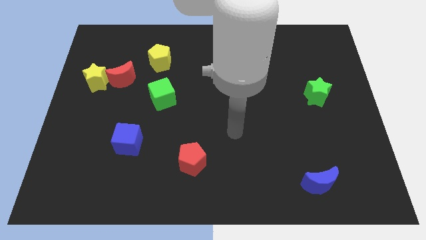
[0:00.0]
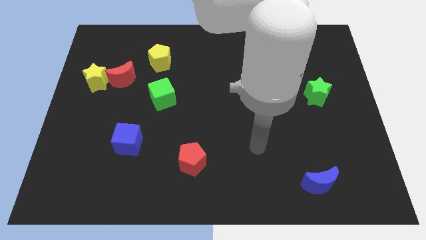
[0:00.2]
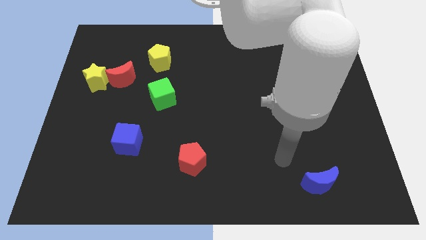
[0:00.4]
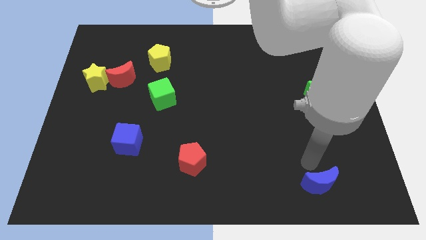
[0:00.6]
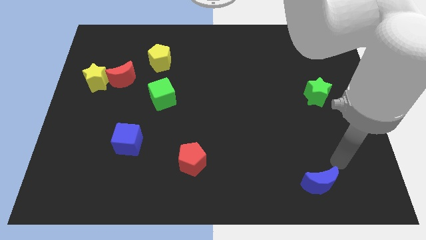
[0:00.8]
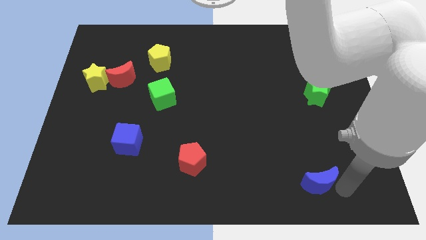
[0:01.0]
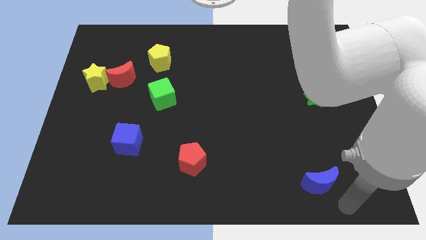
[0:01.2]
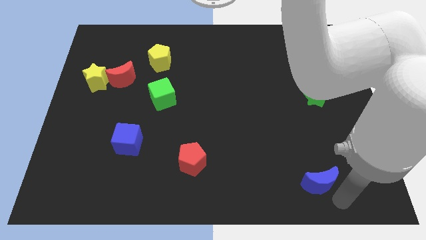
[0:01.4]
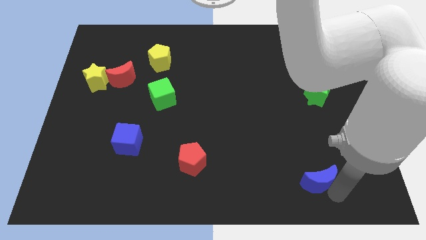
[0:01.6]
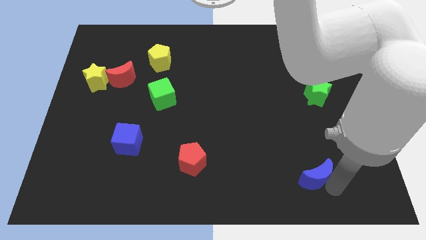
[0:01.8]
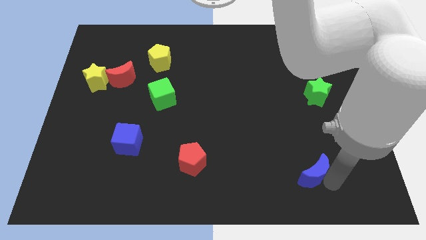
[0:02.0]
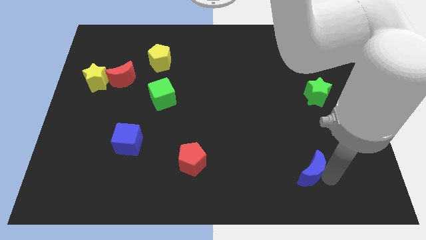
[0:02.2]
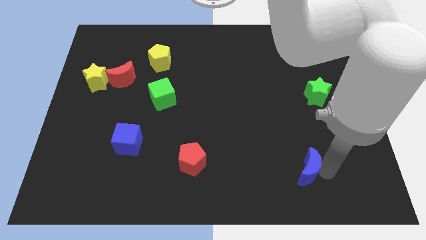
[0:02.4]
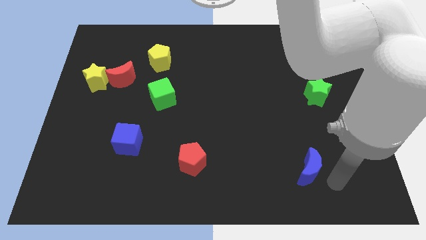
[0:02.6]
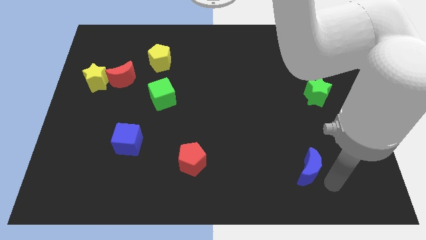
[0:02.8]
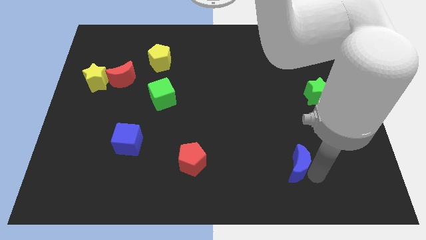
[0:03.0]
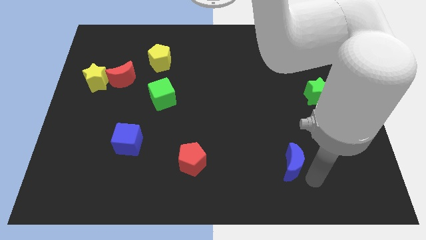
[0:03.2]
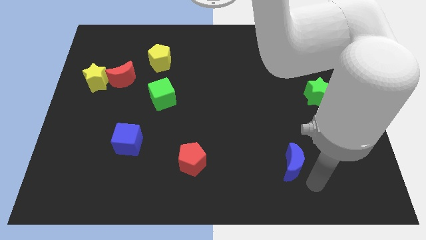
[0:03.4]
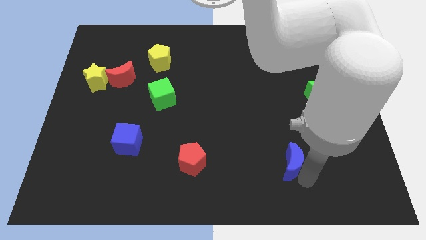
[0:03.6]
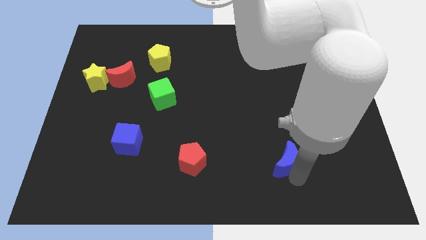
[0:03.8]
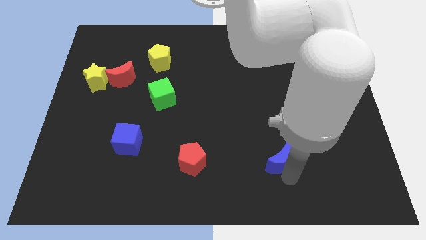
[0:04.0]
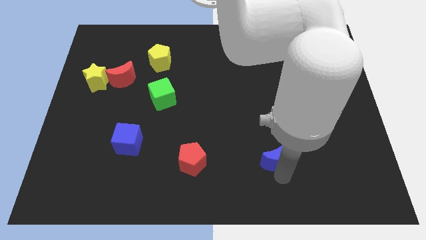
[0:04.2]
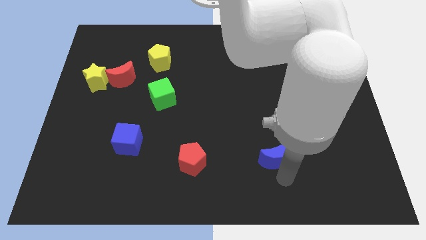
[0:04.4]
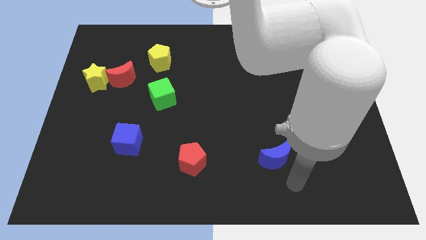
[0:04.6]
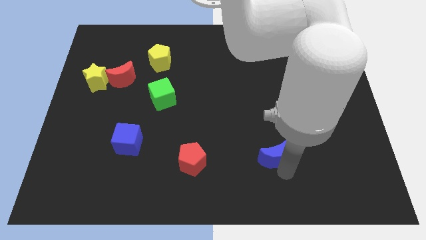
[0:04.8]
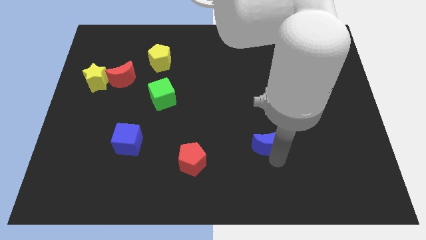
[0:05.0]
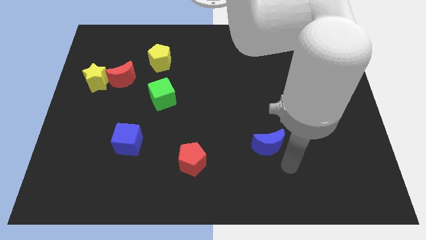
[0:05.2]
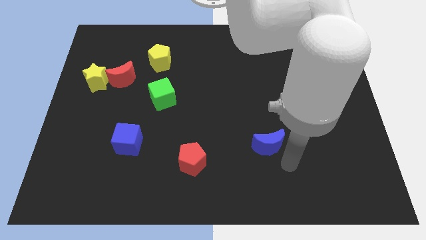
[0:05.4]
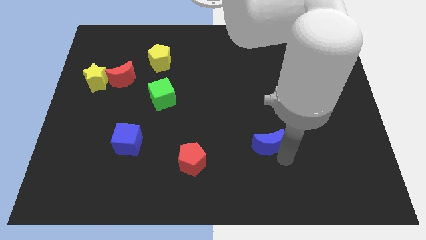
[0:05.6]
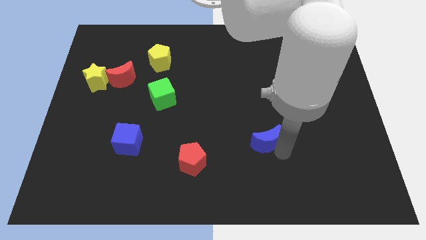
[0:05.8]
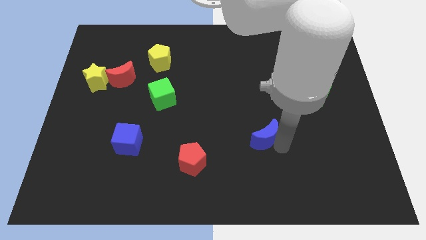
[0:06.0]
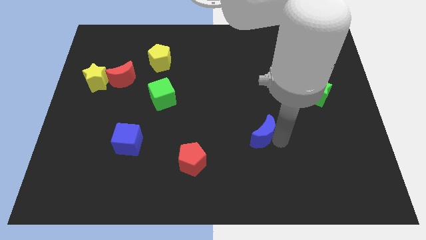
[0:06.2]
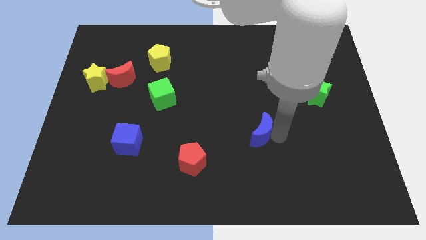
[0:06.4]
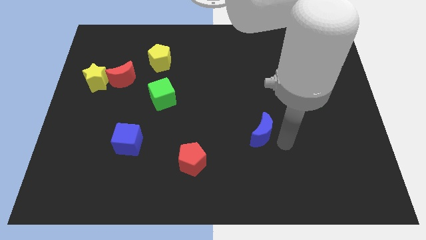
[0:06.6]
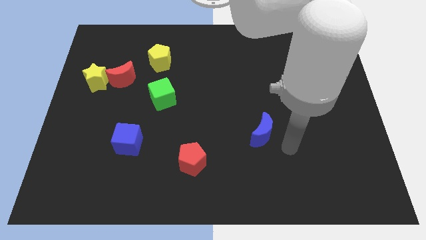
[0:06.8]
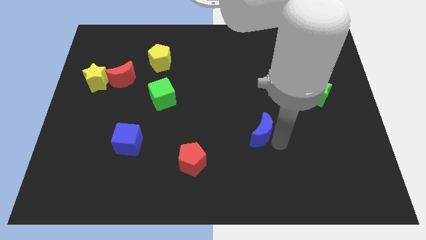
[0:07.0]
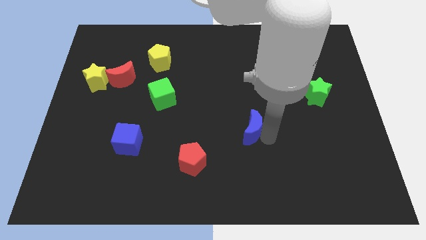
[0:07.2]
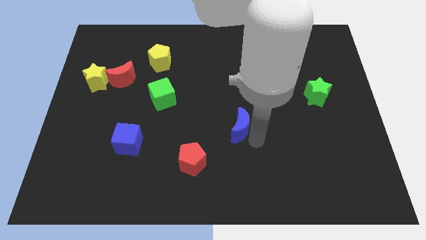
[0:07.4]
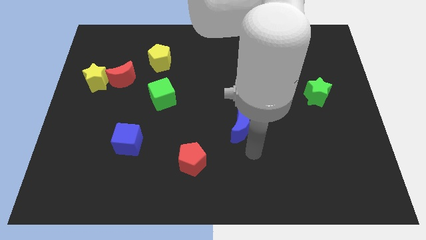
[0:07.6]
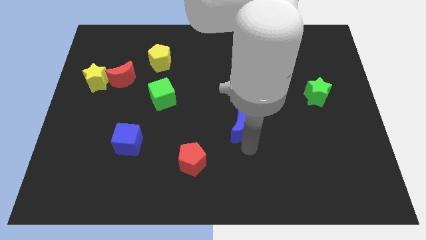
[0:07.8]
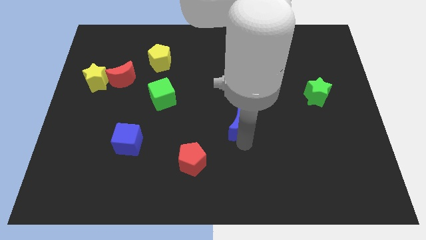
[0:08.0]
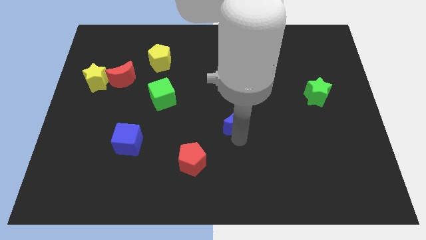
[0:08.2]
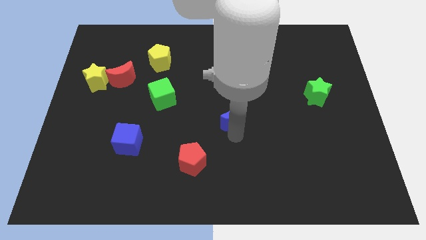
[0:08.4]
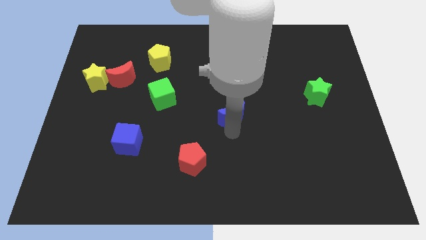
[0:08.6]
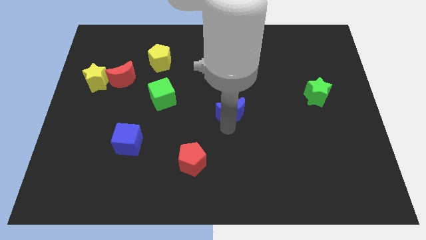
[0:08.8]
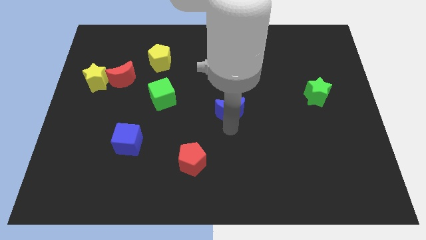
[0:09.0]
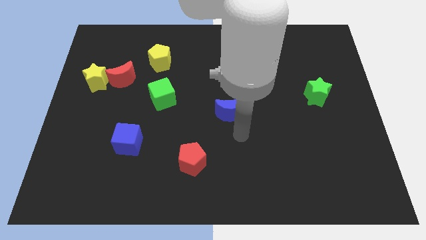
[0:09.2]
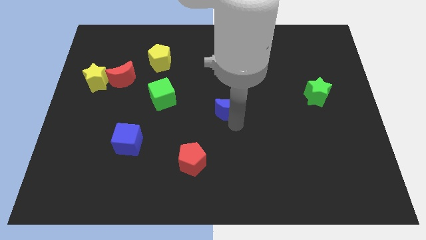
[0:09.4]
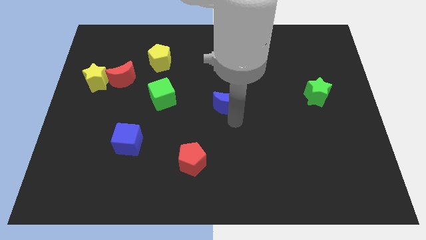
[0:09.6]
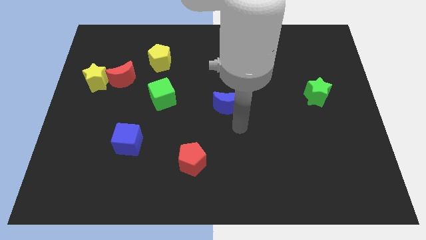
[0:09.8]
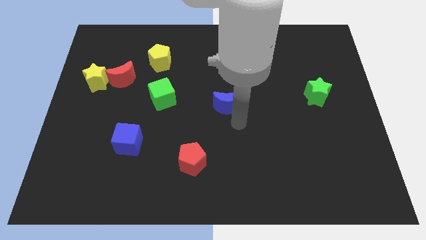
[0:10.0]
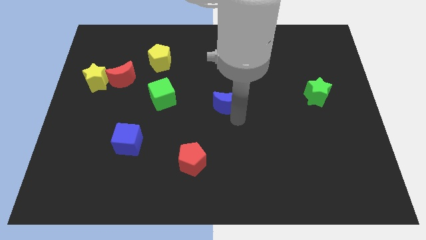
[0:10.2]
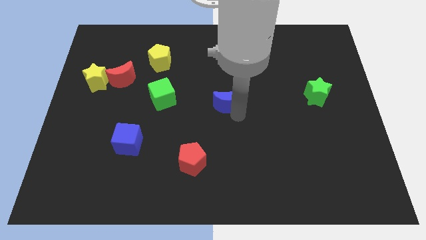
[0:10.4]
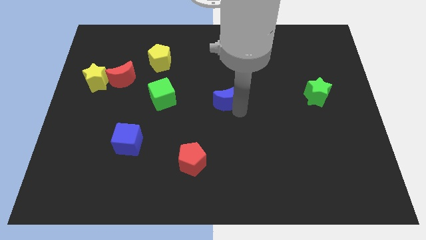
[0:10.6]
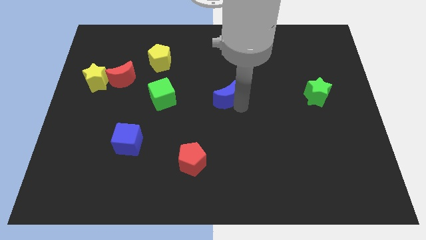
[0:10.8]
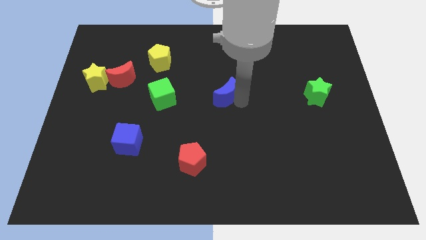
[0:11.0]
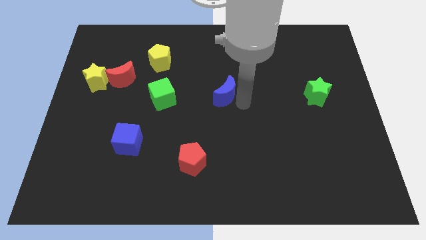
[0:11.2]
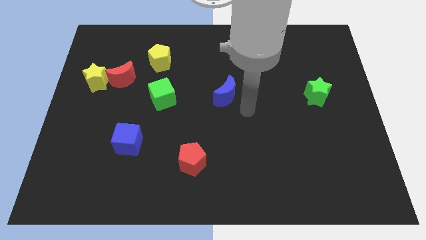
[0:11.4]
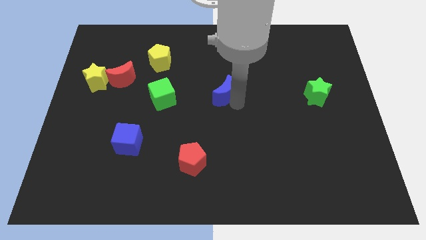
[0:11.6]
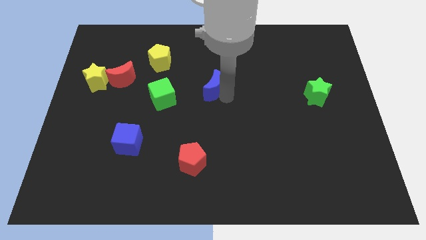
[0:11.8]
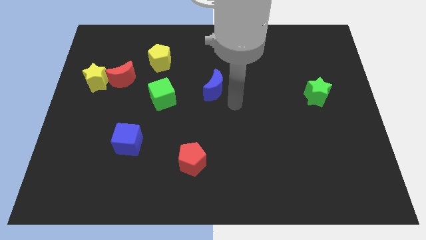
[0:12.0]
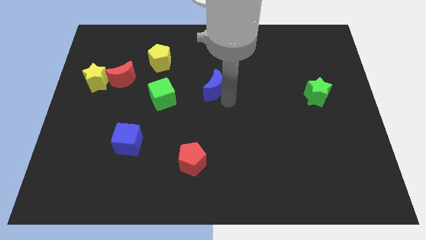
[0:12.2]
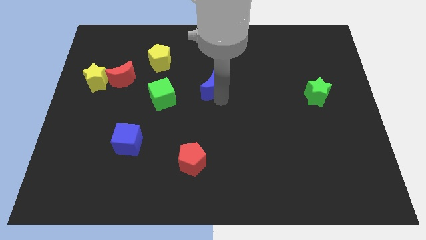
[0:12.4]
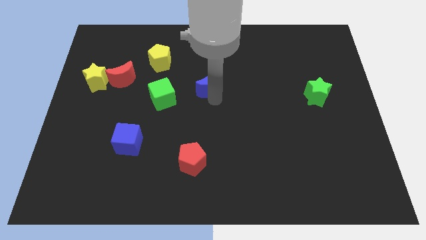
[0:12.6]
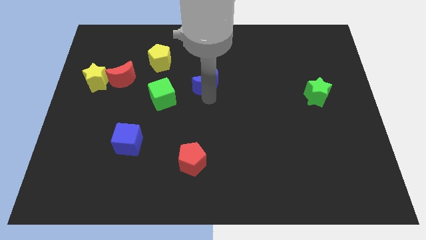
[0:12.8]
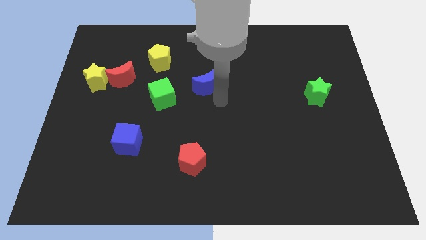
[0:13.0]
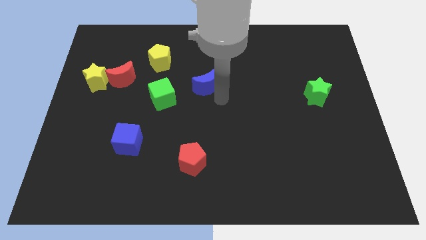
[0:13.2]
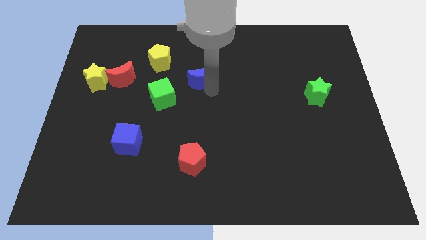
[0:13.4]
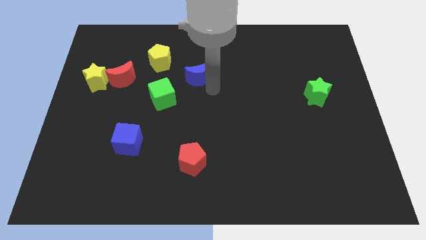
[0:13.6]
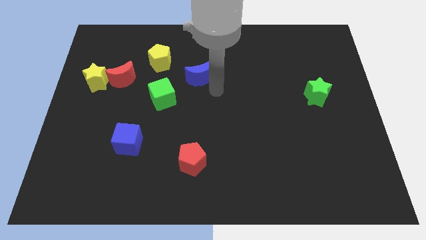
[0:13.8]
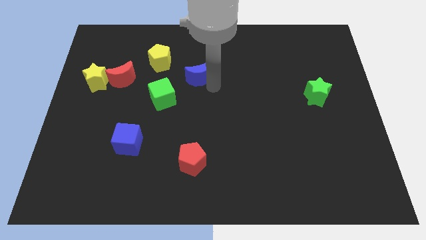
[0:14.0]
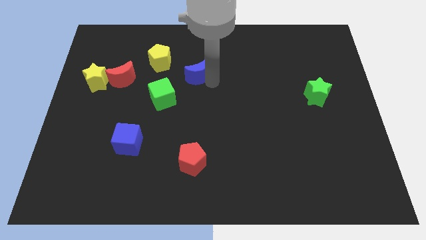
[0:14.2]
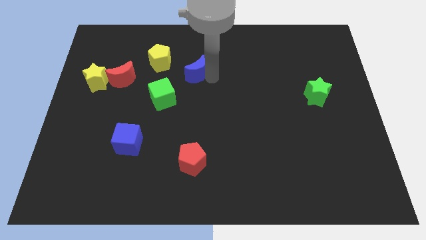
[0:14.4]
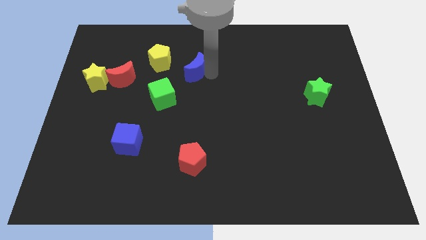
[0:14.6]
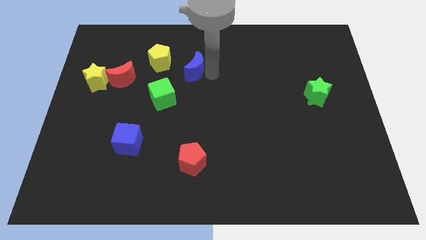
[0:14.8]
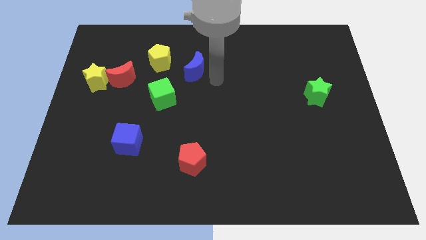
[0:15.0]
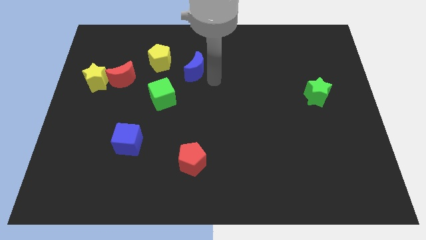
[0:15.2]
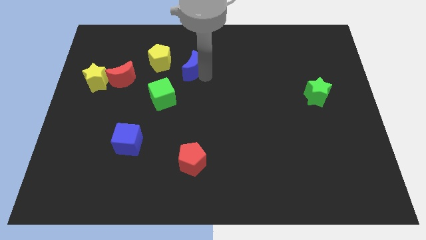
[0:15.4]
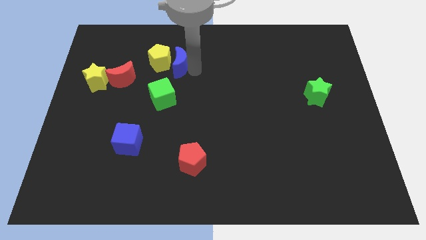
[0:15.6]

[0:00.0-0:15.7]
slide the blue moon close to the yellow pentagon
